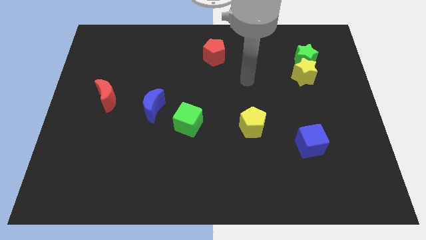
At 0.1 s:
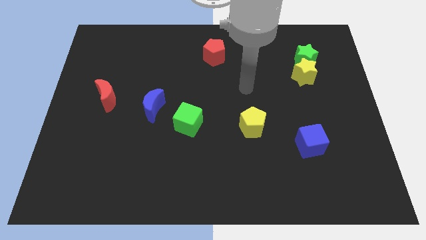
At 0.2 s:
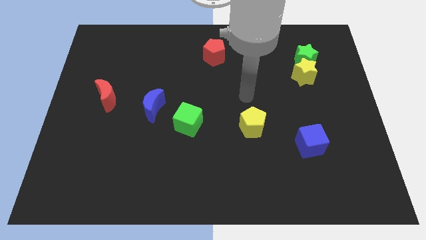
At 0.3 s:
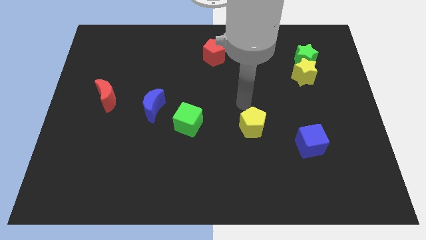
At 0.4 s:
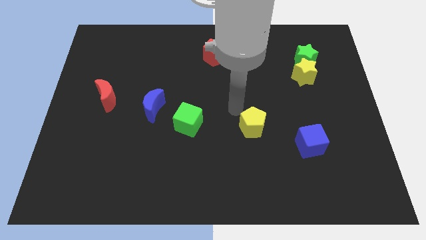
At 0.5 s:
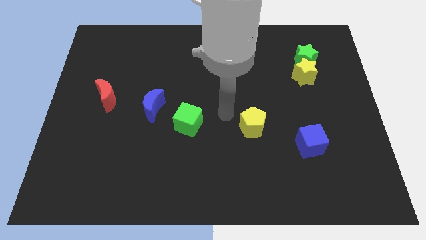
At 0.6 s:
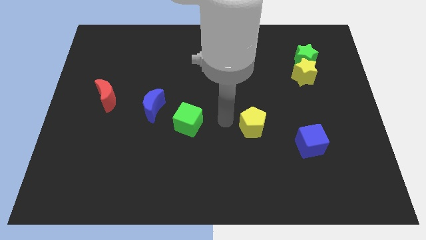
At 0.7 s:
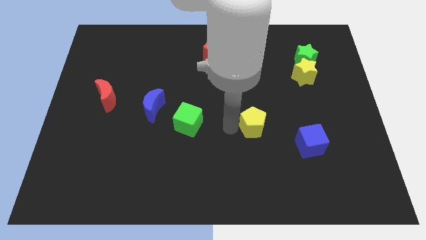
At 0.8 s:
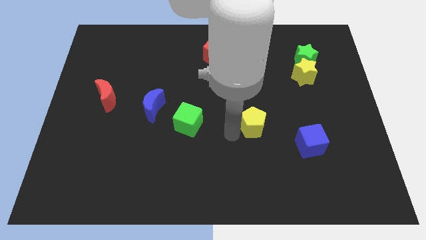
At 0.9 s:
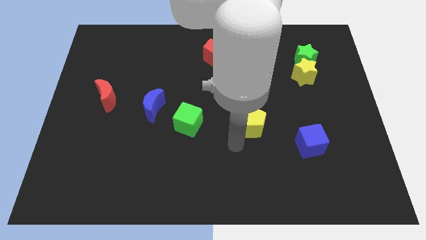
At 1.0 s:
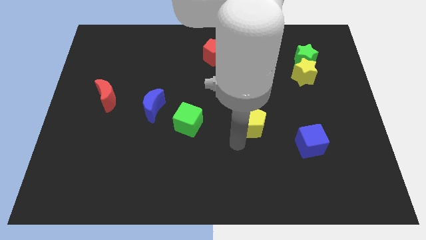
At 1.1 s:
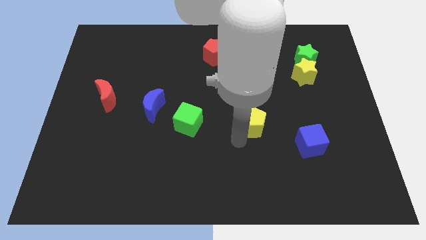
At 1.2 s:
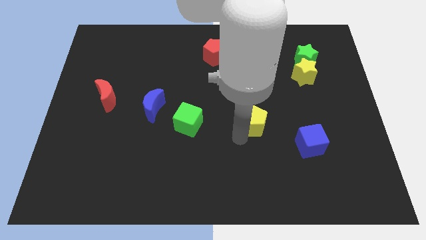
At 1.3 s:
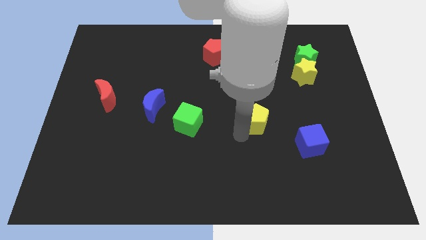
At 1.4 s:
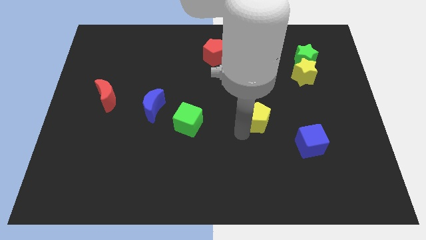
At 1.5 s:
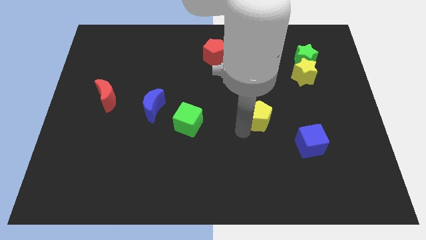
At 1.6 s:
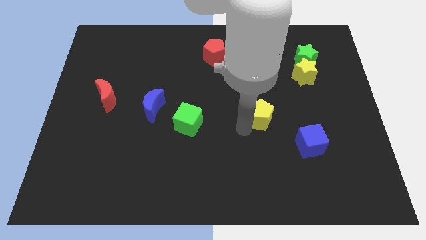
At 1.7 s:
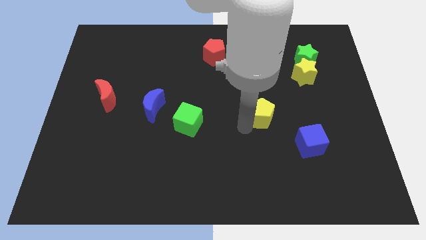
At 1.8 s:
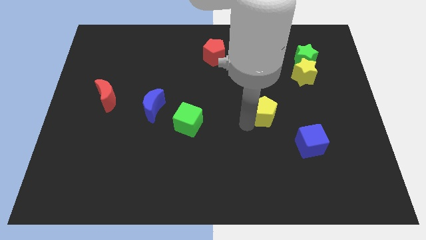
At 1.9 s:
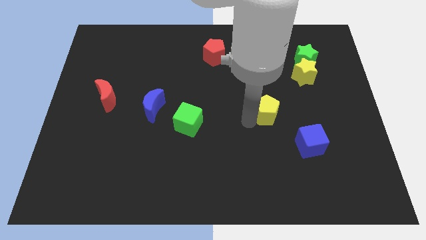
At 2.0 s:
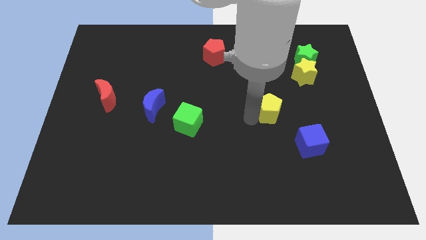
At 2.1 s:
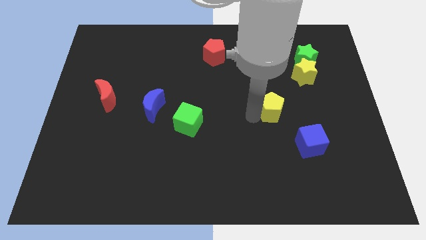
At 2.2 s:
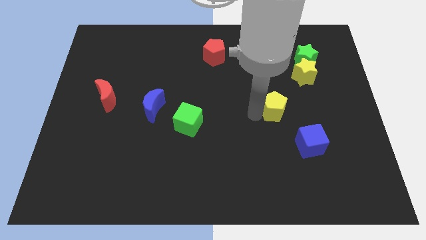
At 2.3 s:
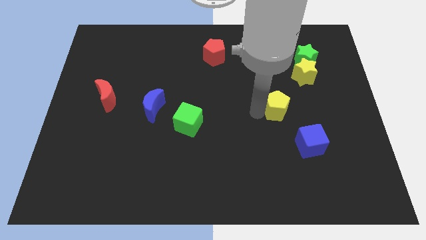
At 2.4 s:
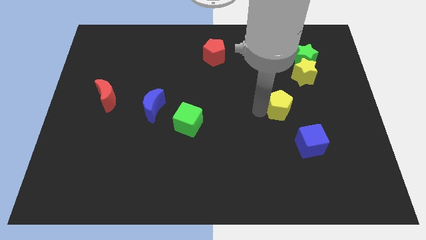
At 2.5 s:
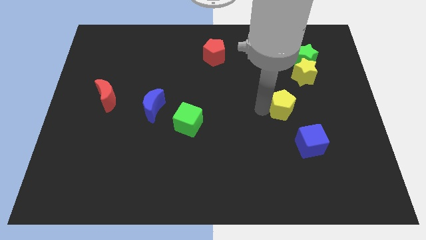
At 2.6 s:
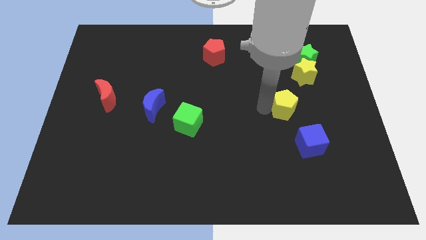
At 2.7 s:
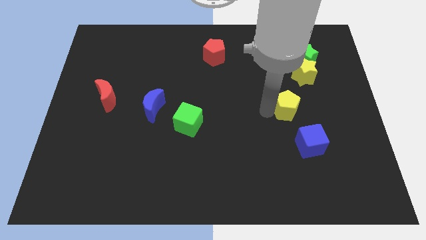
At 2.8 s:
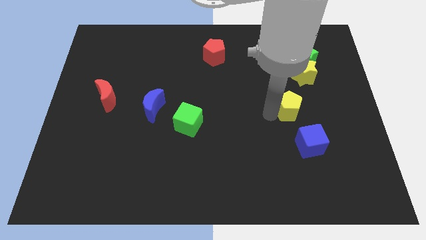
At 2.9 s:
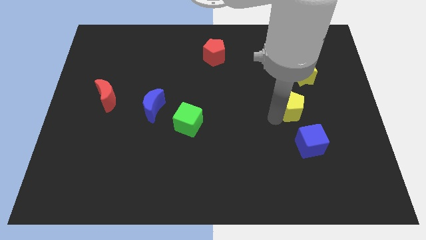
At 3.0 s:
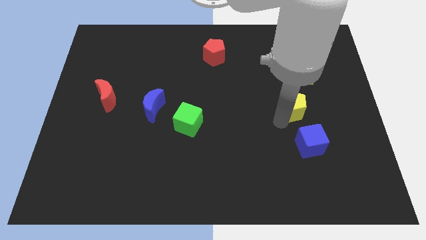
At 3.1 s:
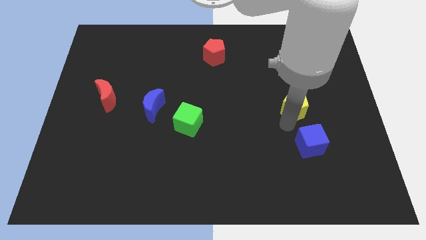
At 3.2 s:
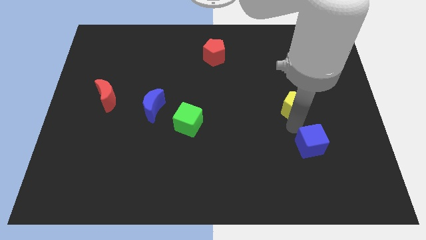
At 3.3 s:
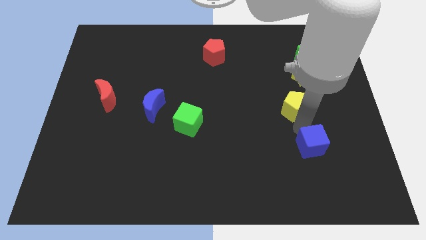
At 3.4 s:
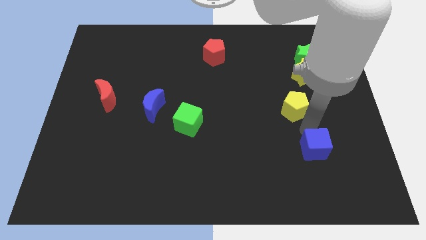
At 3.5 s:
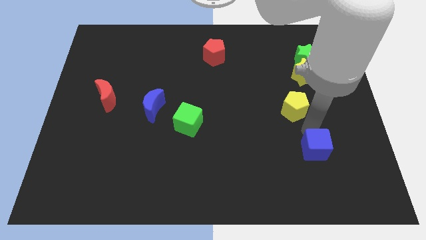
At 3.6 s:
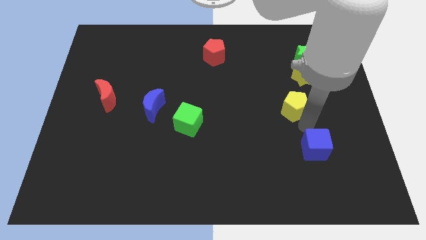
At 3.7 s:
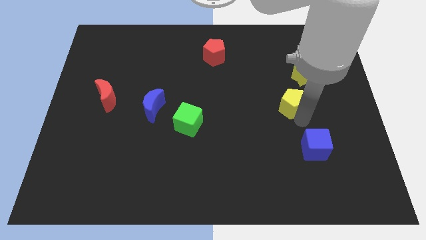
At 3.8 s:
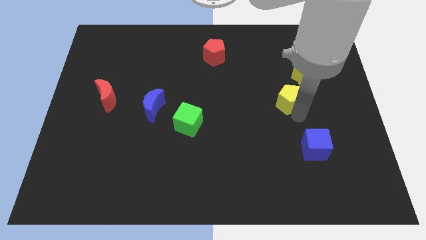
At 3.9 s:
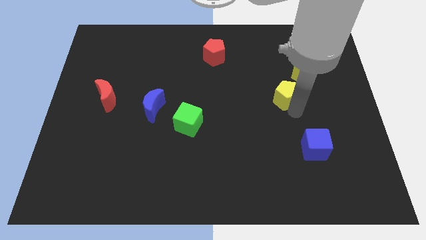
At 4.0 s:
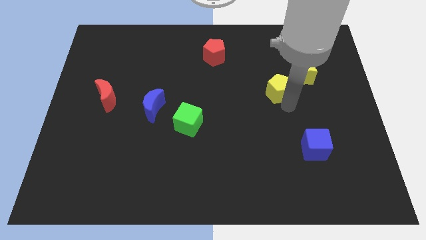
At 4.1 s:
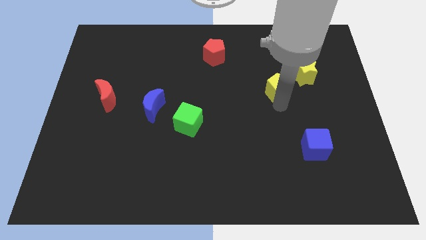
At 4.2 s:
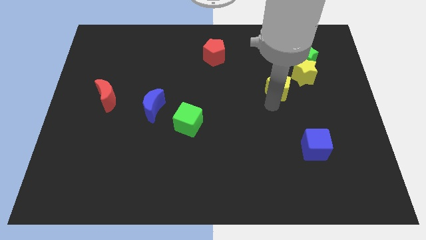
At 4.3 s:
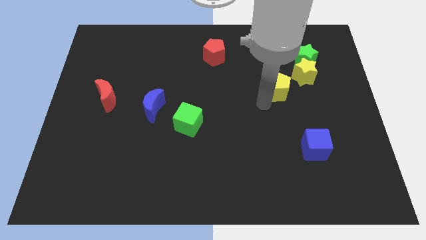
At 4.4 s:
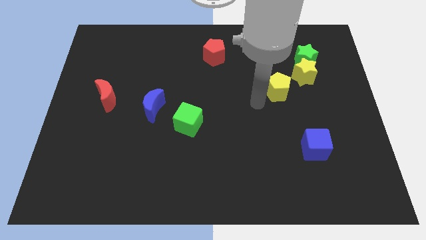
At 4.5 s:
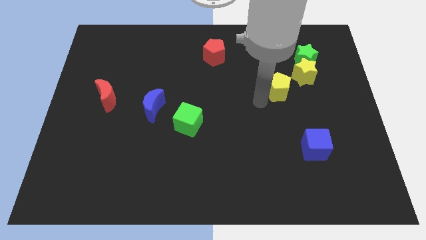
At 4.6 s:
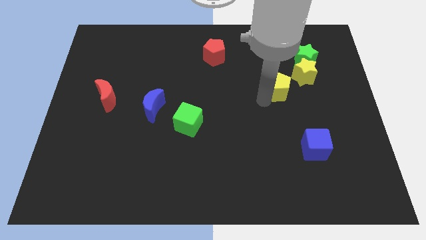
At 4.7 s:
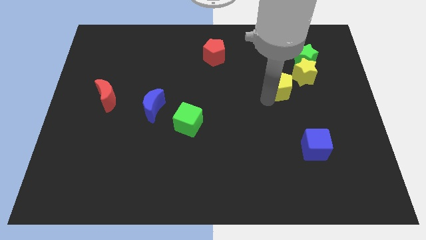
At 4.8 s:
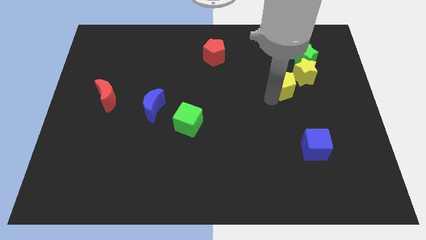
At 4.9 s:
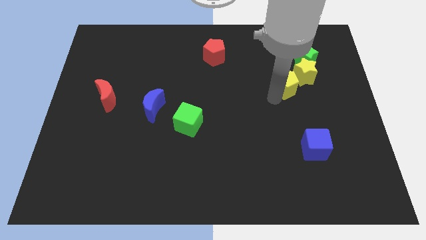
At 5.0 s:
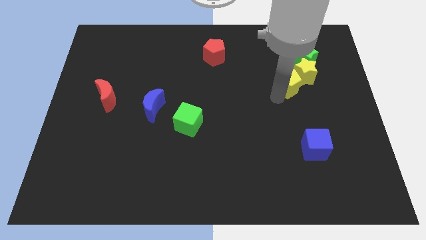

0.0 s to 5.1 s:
slide the yellow pentagon close to the yellow star

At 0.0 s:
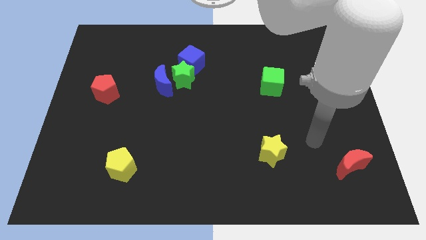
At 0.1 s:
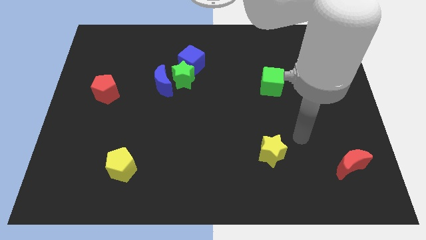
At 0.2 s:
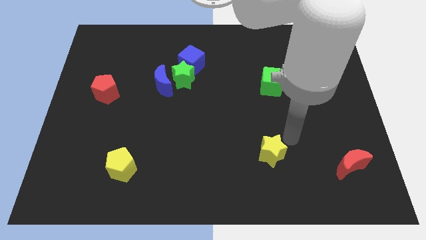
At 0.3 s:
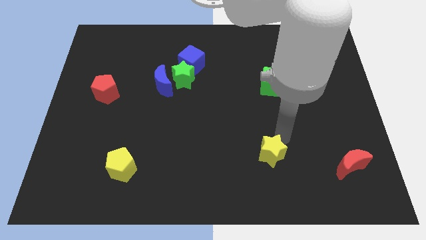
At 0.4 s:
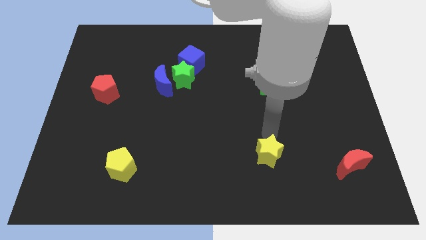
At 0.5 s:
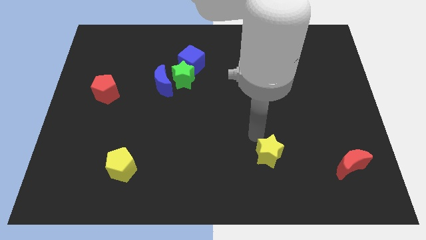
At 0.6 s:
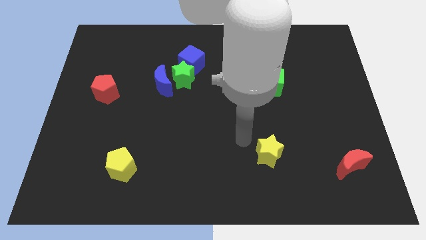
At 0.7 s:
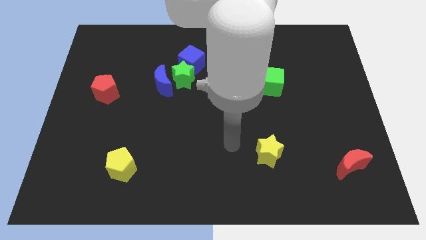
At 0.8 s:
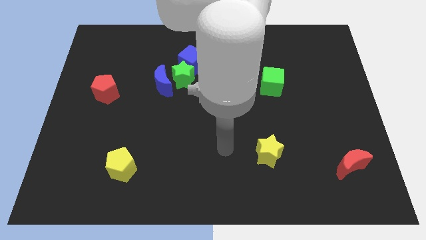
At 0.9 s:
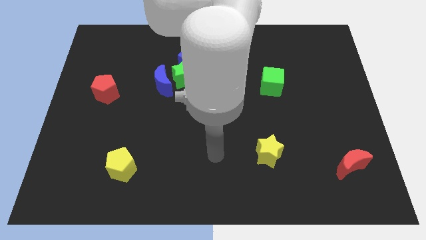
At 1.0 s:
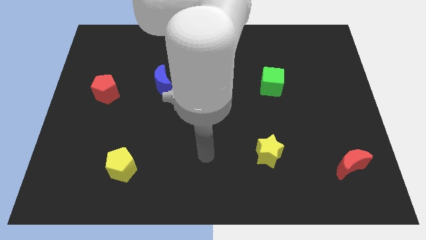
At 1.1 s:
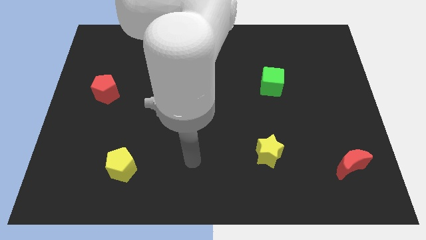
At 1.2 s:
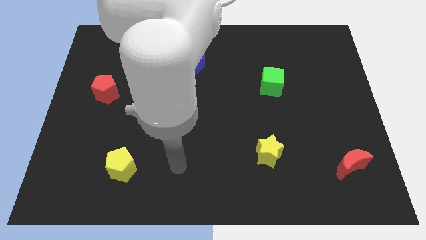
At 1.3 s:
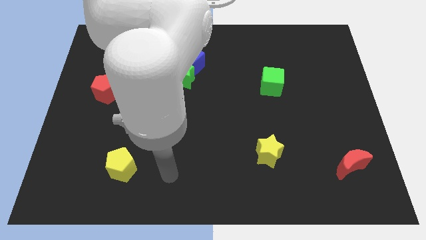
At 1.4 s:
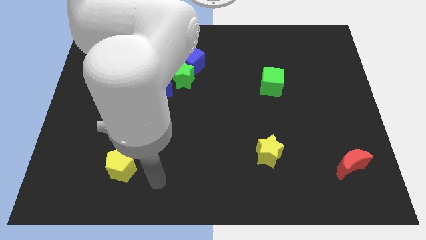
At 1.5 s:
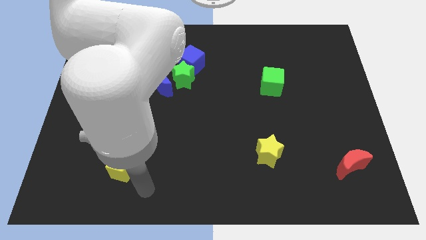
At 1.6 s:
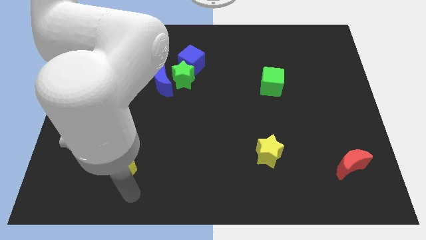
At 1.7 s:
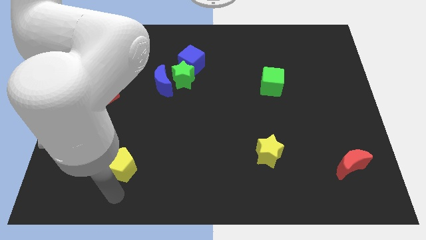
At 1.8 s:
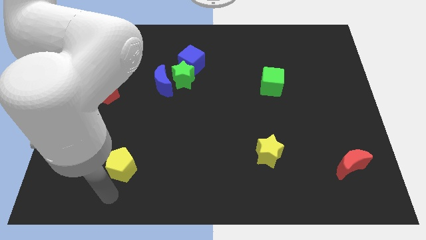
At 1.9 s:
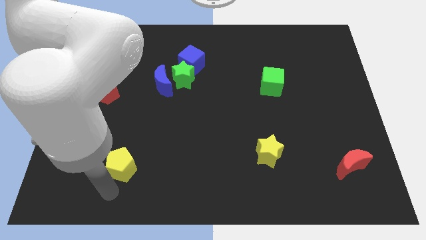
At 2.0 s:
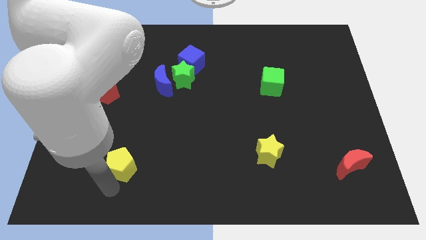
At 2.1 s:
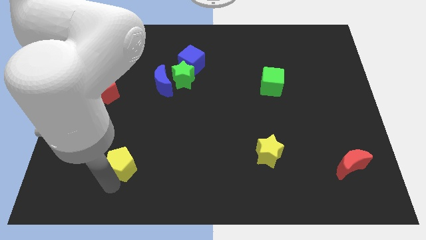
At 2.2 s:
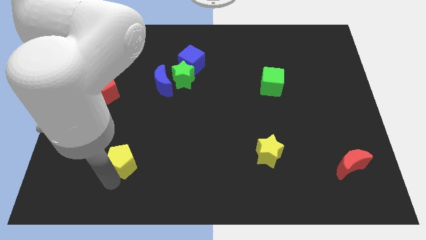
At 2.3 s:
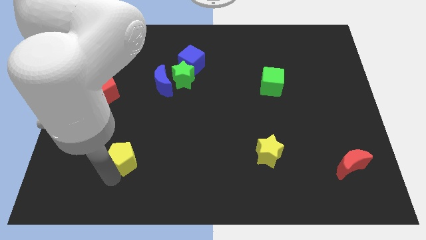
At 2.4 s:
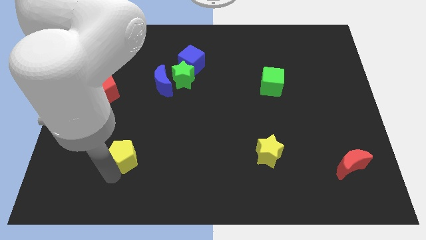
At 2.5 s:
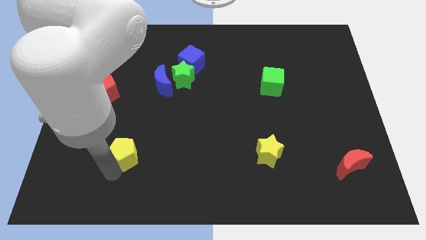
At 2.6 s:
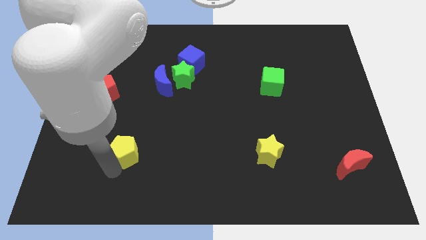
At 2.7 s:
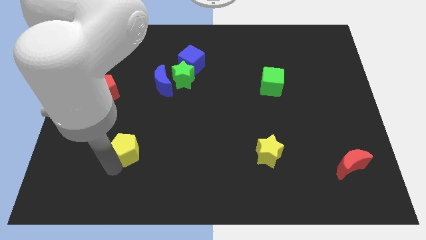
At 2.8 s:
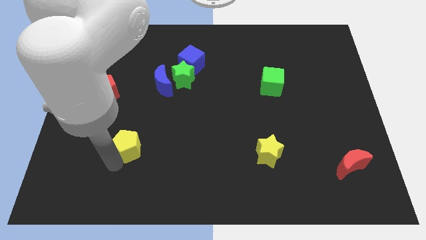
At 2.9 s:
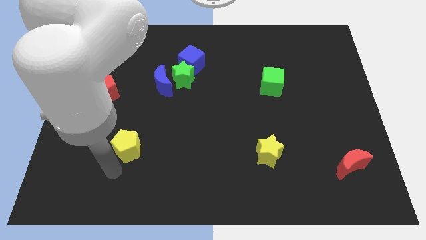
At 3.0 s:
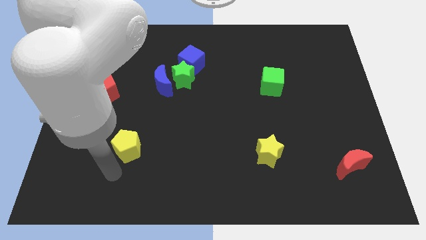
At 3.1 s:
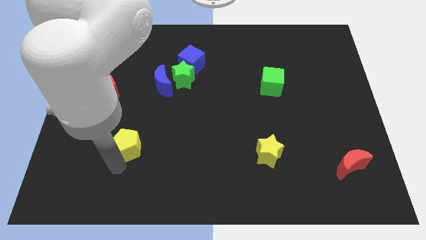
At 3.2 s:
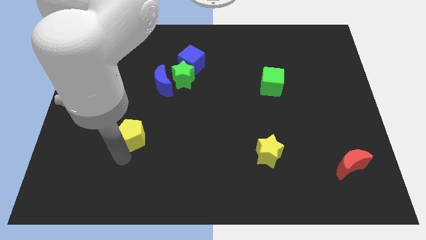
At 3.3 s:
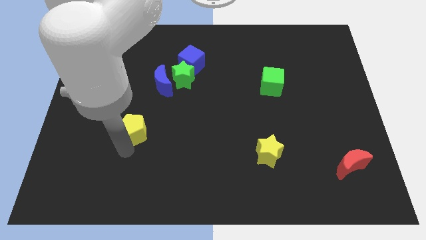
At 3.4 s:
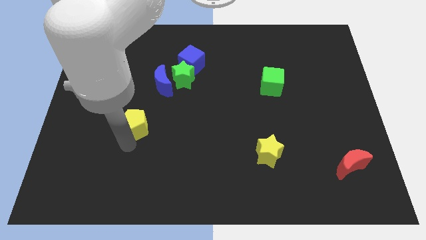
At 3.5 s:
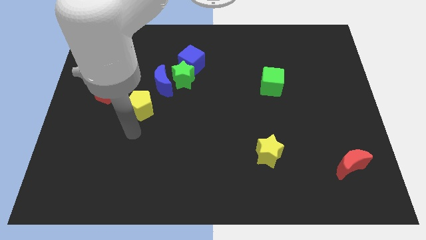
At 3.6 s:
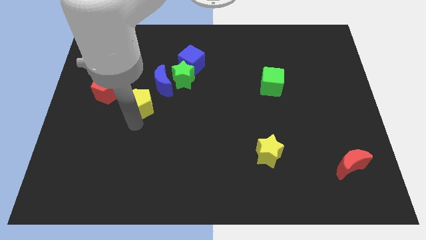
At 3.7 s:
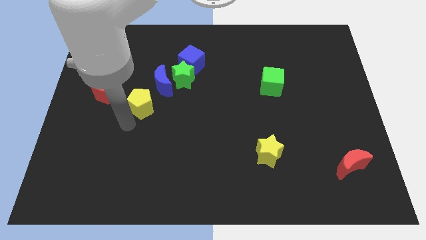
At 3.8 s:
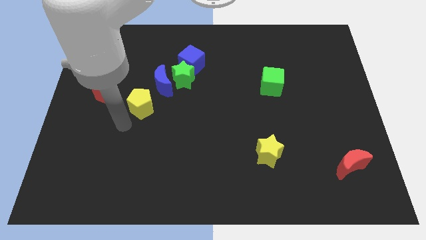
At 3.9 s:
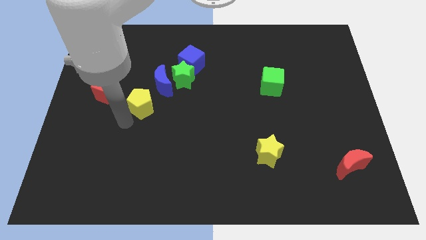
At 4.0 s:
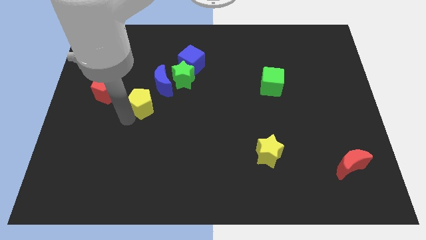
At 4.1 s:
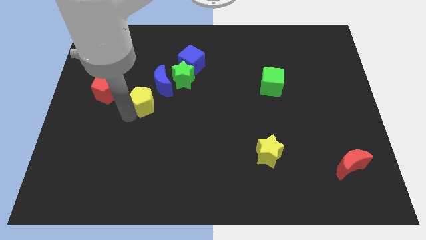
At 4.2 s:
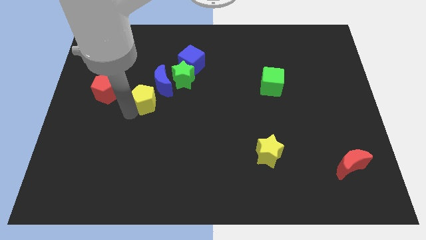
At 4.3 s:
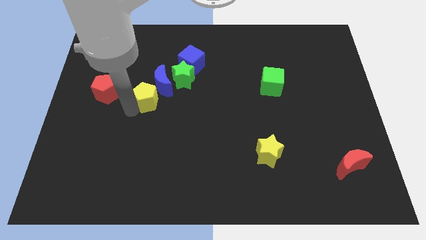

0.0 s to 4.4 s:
put the yellow pentagon to the blue moon
